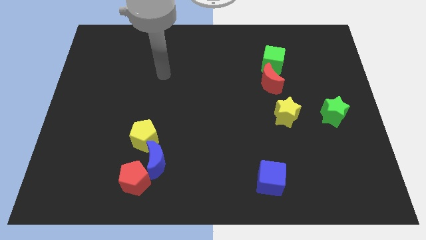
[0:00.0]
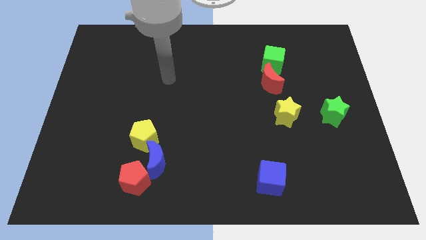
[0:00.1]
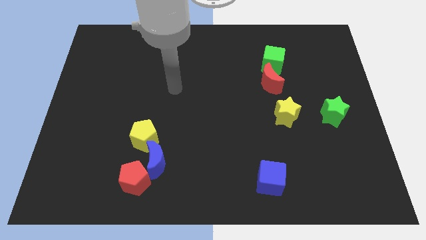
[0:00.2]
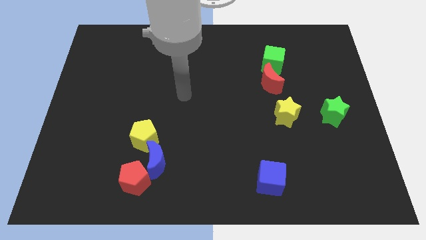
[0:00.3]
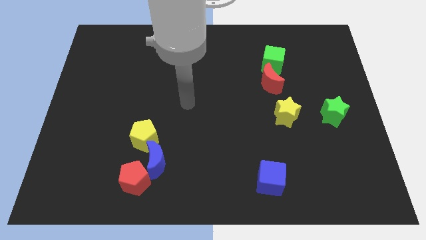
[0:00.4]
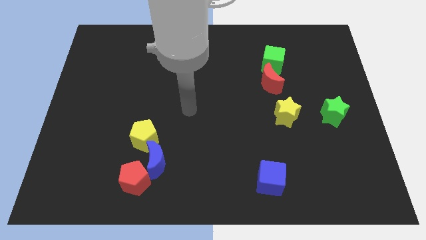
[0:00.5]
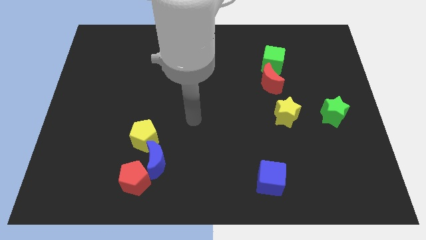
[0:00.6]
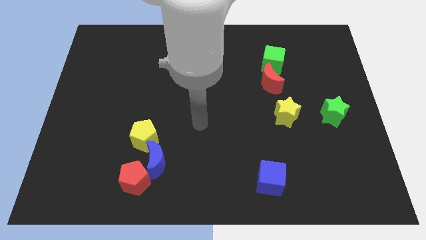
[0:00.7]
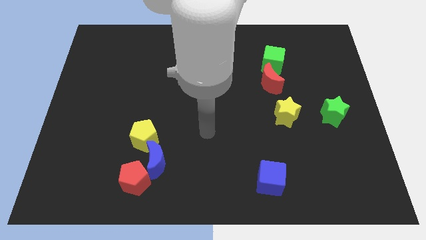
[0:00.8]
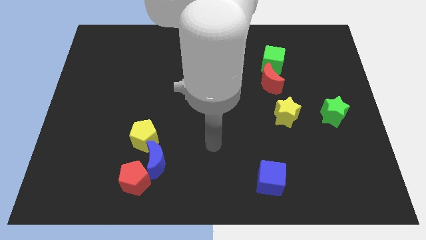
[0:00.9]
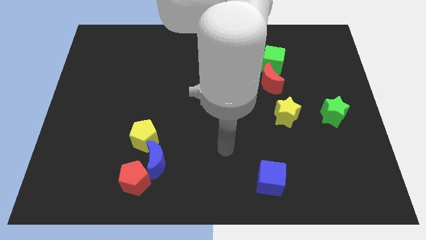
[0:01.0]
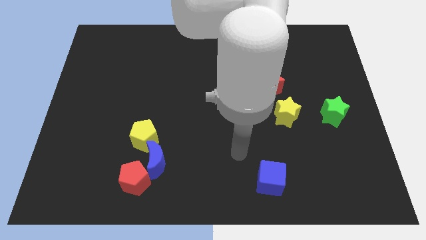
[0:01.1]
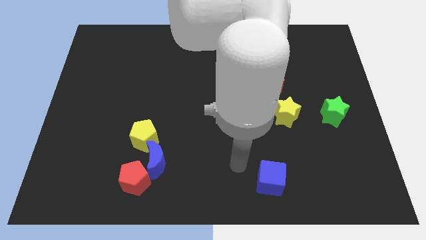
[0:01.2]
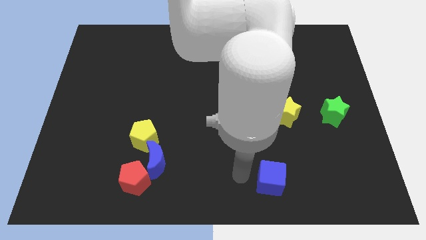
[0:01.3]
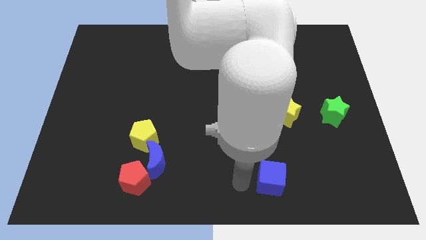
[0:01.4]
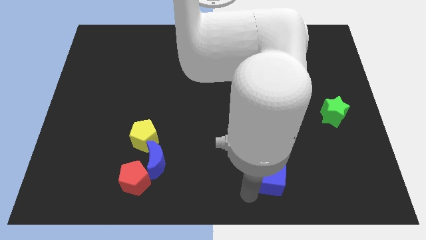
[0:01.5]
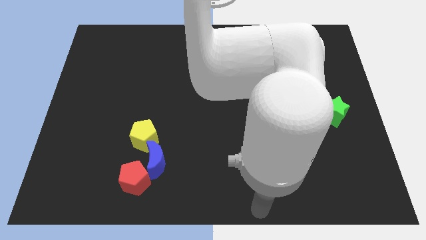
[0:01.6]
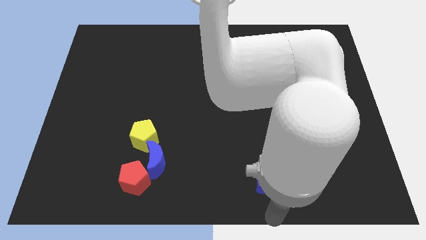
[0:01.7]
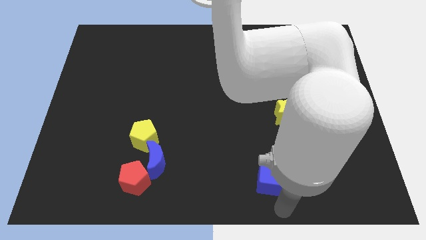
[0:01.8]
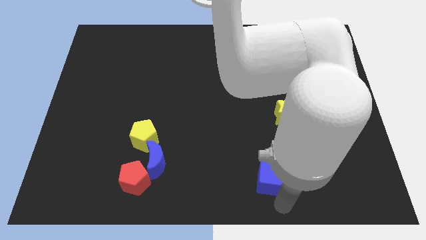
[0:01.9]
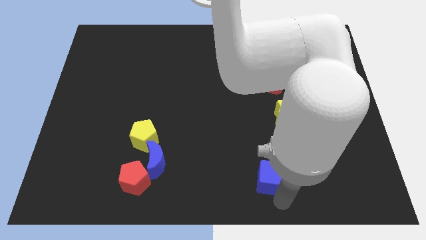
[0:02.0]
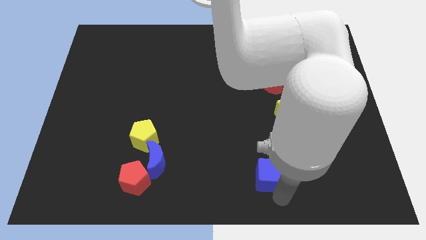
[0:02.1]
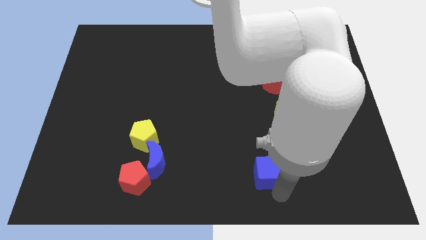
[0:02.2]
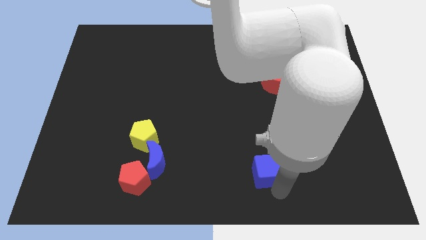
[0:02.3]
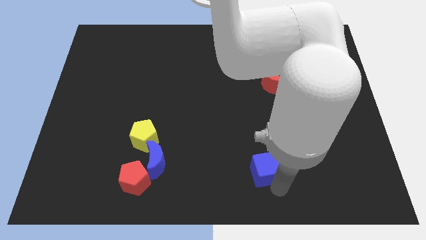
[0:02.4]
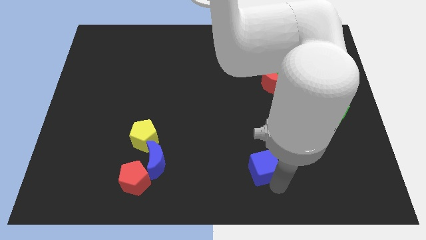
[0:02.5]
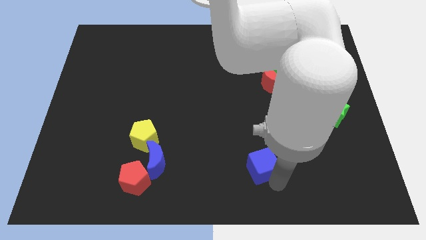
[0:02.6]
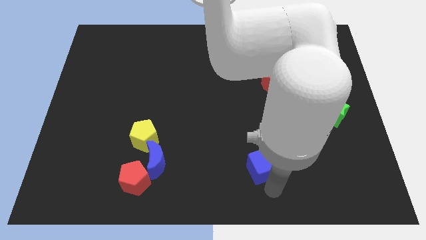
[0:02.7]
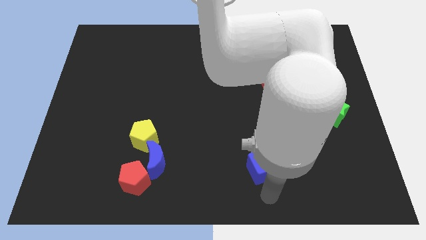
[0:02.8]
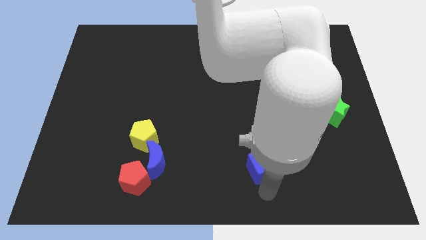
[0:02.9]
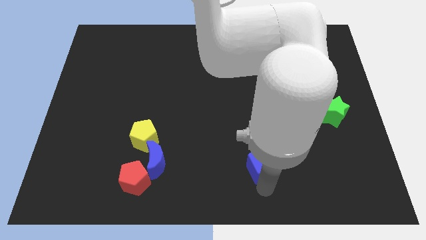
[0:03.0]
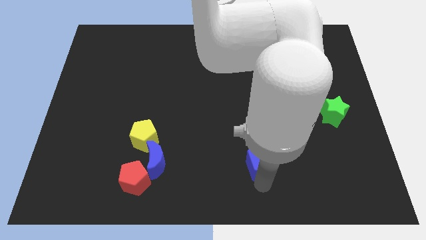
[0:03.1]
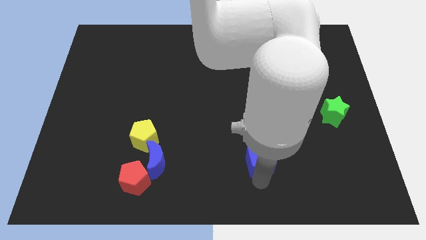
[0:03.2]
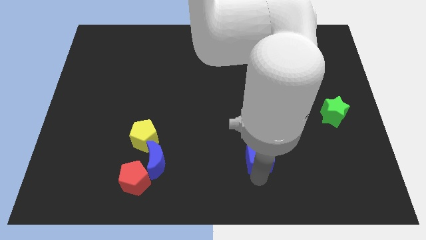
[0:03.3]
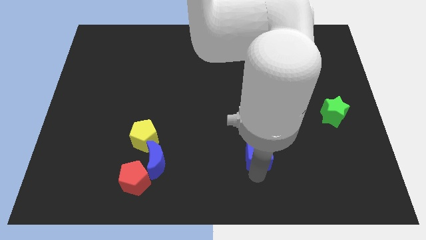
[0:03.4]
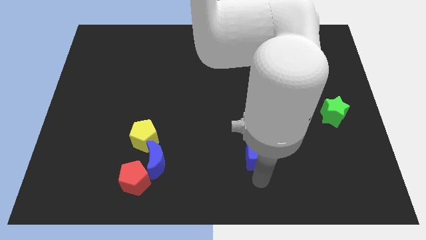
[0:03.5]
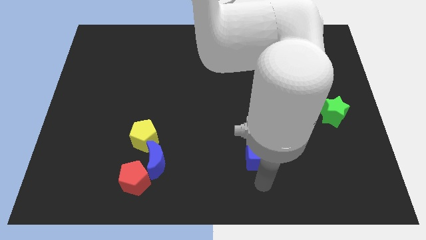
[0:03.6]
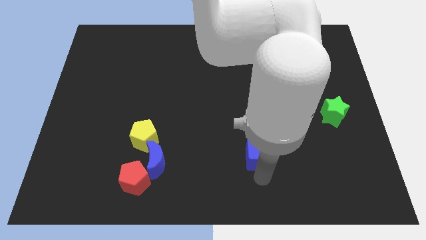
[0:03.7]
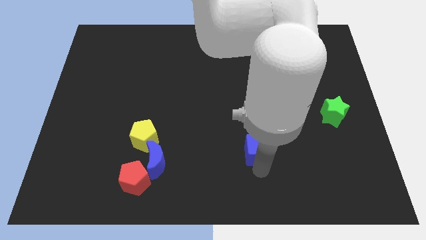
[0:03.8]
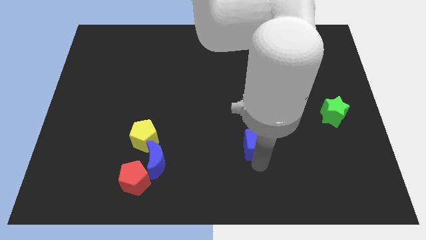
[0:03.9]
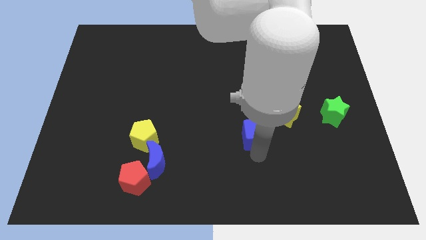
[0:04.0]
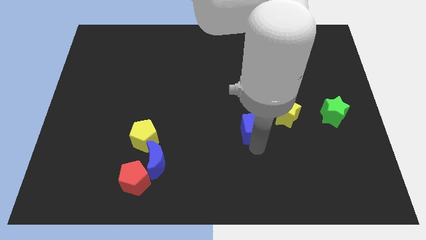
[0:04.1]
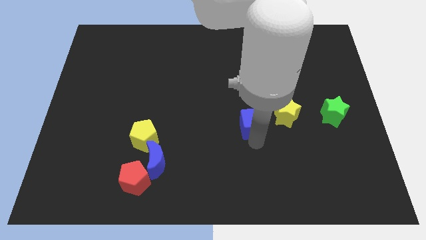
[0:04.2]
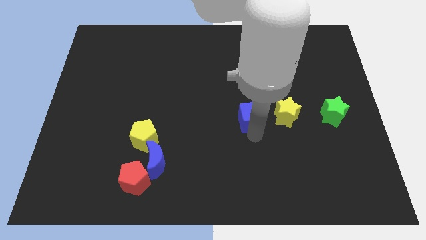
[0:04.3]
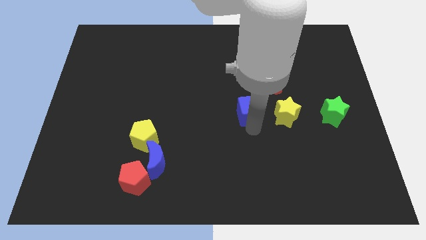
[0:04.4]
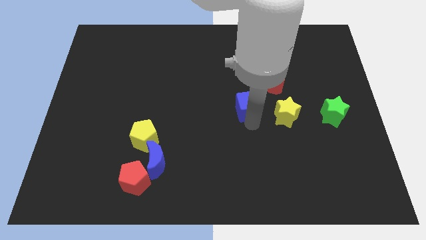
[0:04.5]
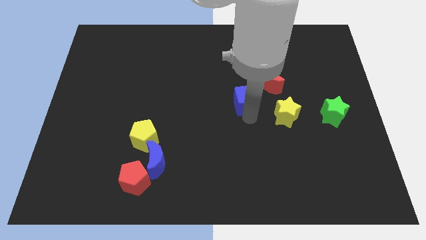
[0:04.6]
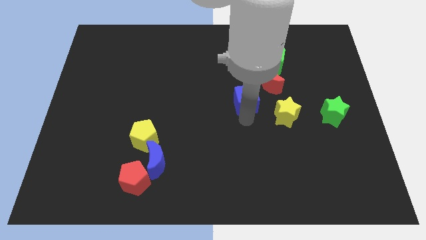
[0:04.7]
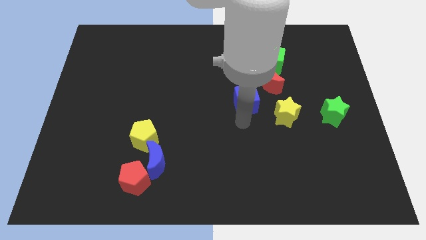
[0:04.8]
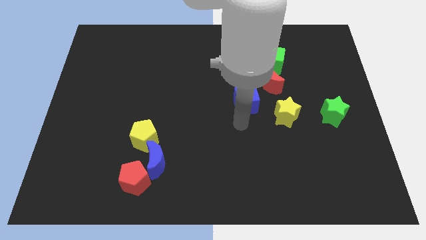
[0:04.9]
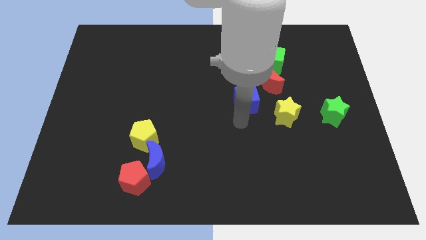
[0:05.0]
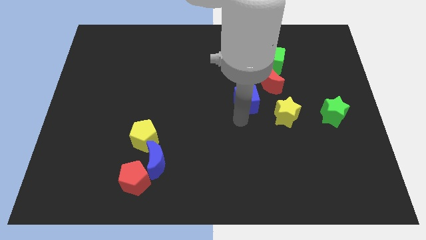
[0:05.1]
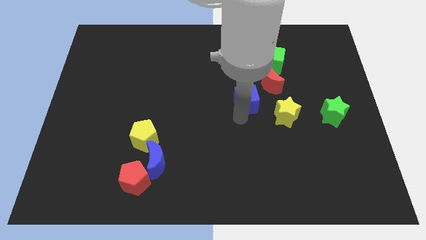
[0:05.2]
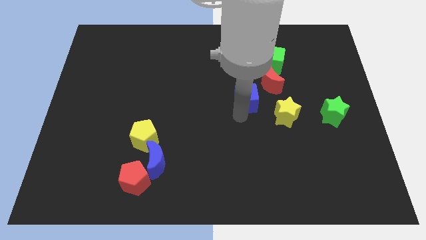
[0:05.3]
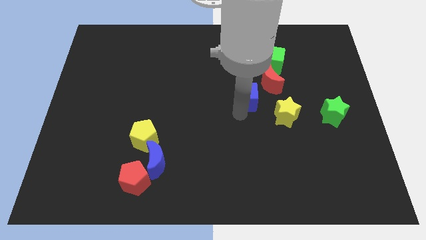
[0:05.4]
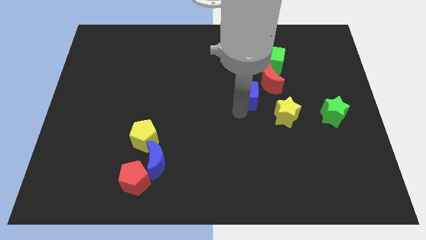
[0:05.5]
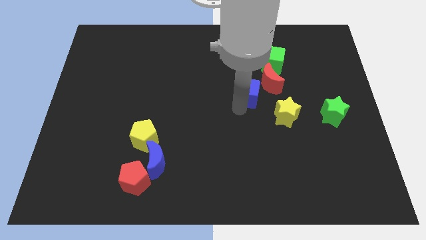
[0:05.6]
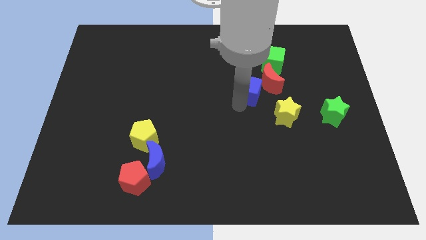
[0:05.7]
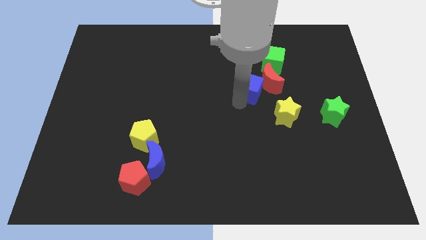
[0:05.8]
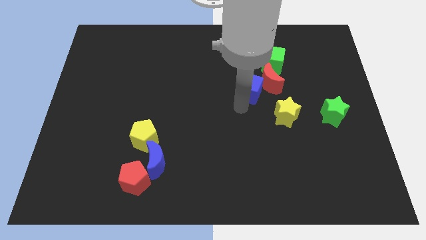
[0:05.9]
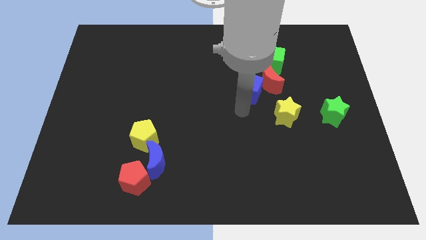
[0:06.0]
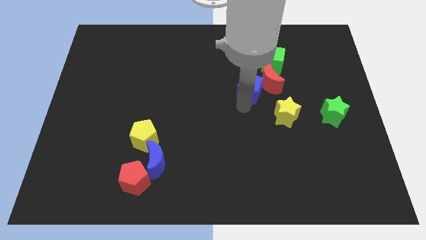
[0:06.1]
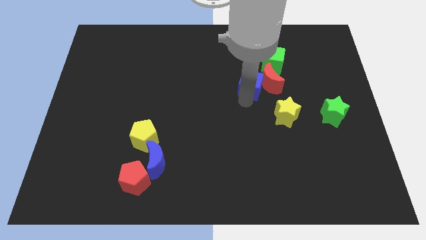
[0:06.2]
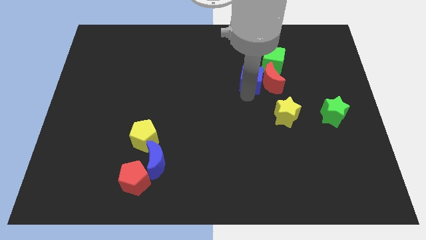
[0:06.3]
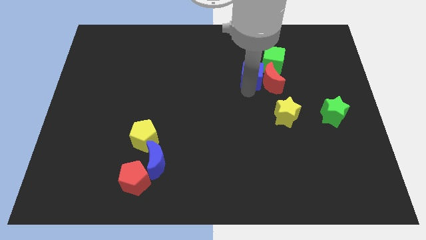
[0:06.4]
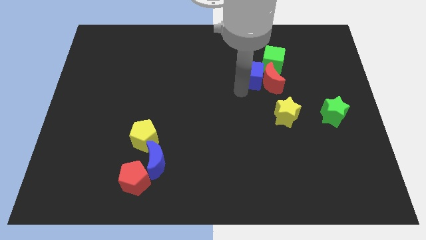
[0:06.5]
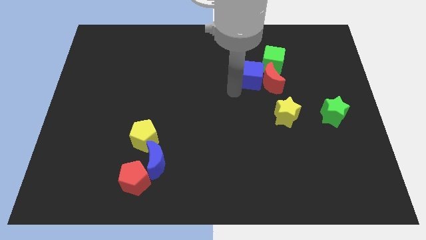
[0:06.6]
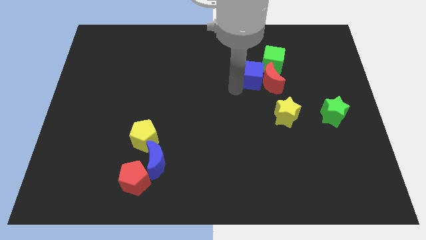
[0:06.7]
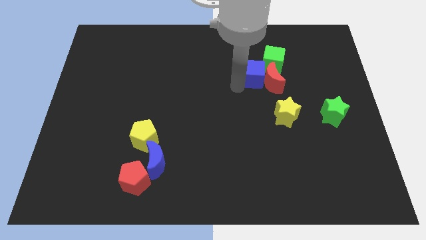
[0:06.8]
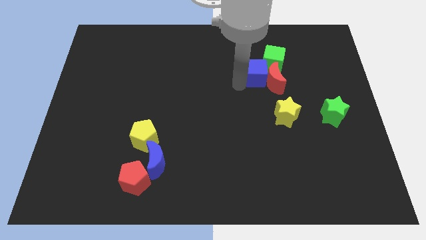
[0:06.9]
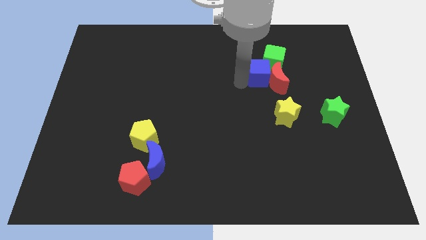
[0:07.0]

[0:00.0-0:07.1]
slide the blue cube next to the green cube
